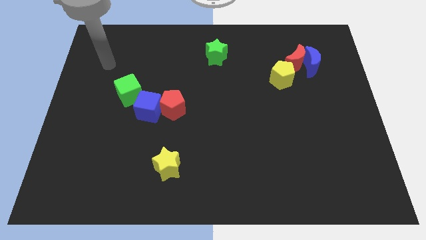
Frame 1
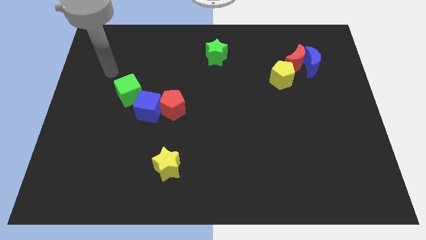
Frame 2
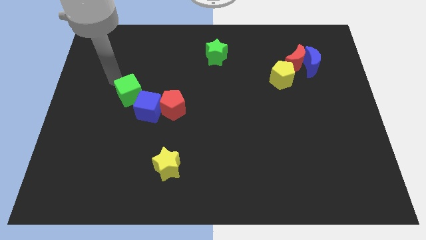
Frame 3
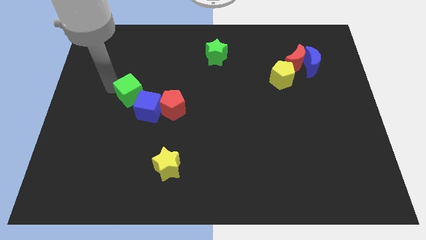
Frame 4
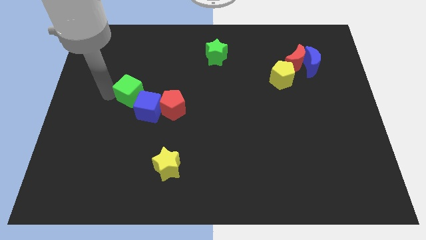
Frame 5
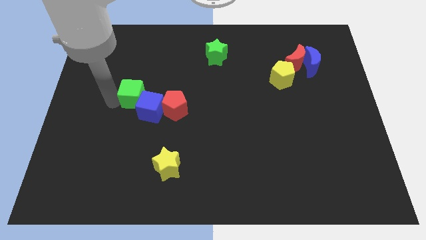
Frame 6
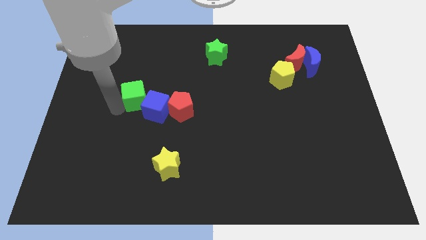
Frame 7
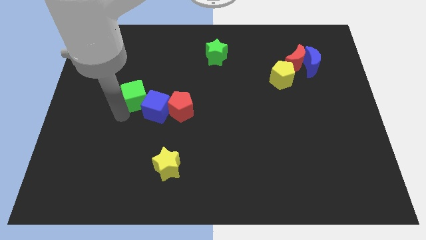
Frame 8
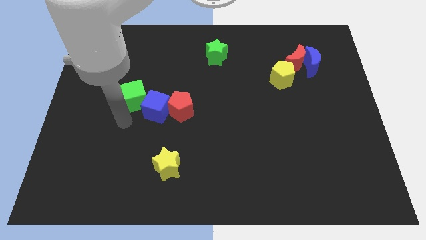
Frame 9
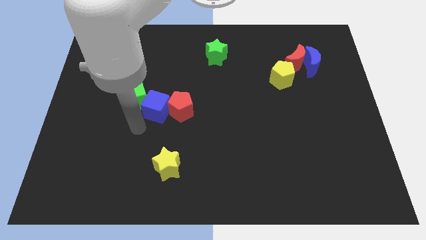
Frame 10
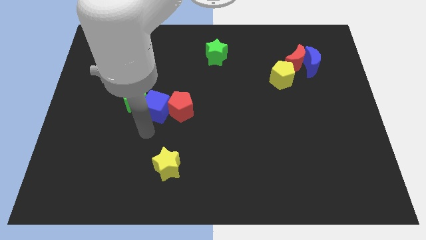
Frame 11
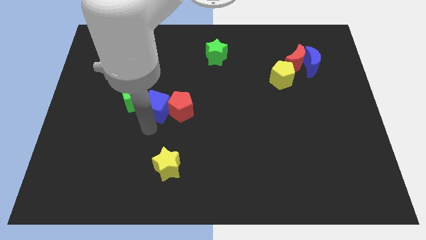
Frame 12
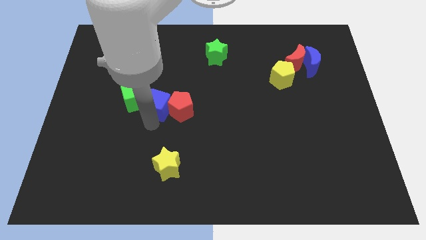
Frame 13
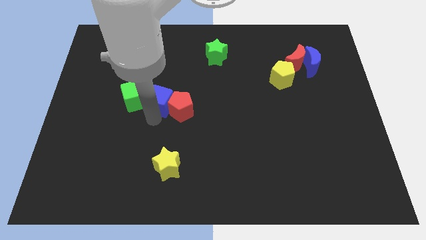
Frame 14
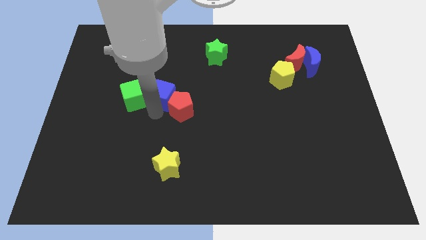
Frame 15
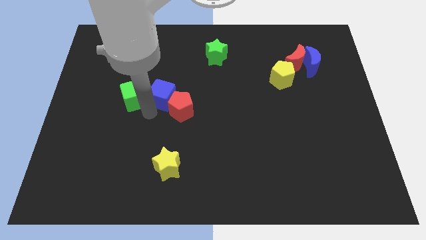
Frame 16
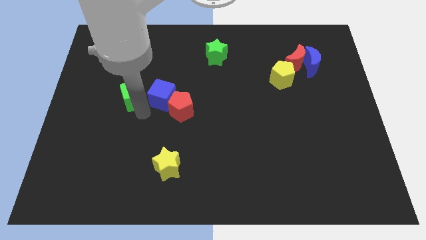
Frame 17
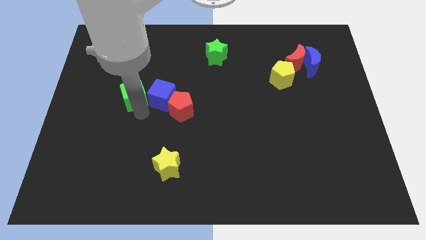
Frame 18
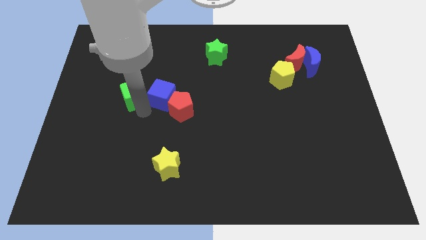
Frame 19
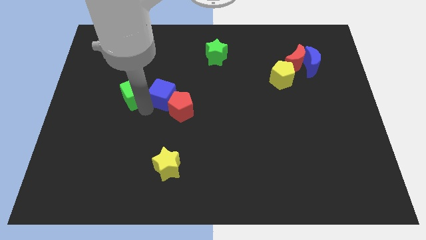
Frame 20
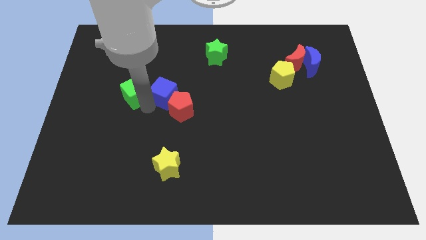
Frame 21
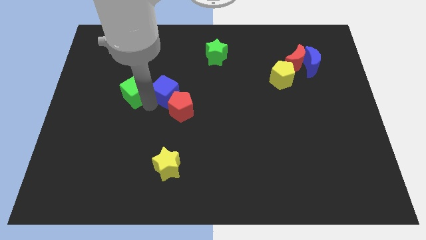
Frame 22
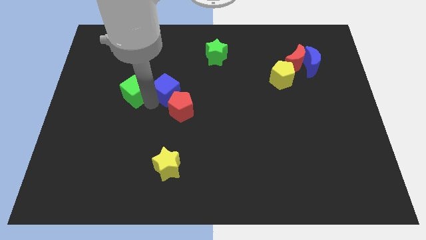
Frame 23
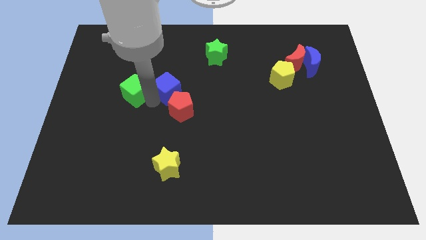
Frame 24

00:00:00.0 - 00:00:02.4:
push the blue cube diagonally upwards and to the right a little

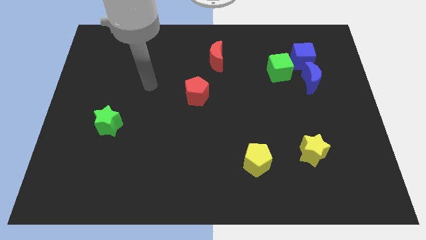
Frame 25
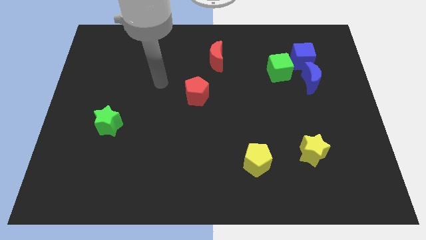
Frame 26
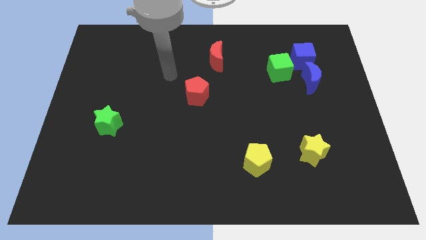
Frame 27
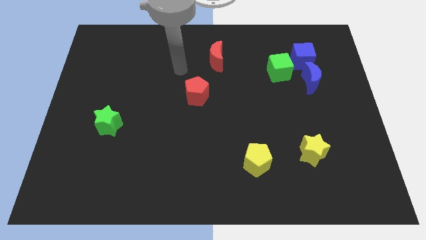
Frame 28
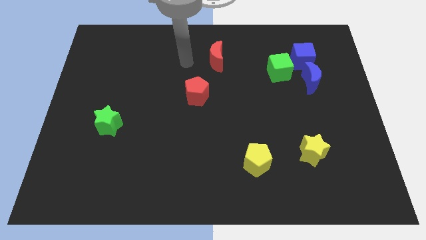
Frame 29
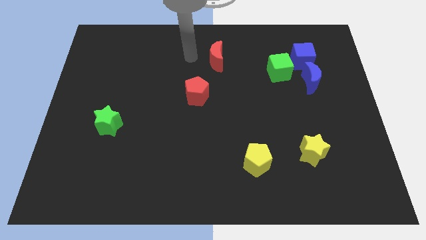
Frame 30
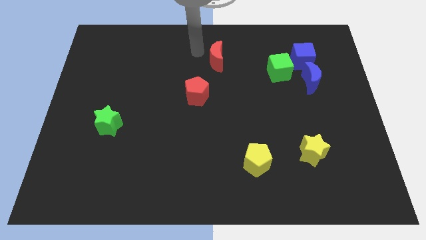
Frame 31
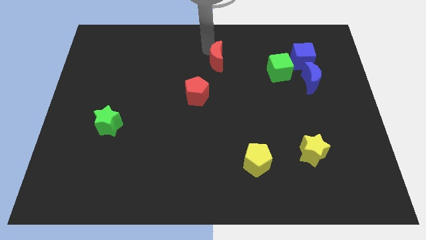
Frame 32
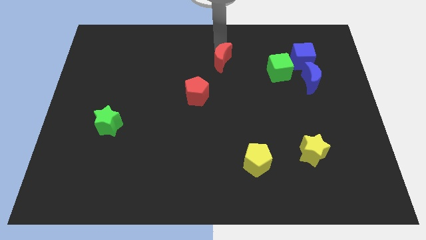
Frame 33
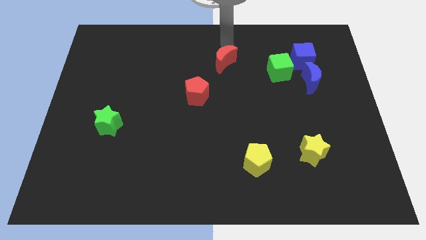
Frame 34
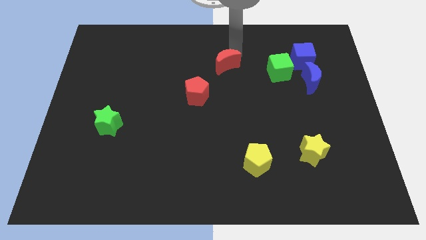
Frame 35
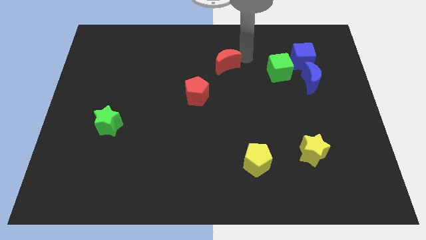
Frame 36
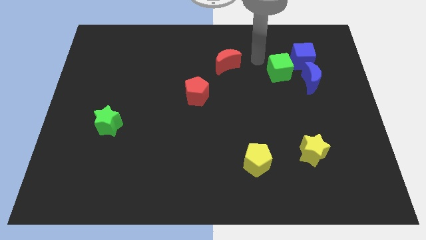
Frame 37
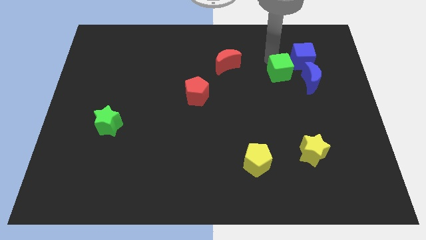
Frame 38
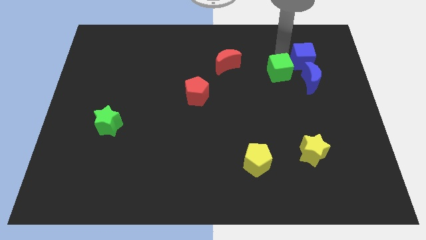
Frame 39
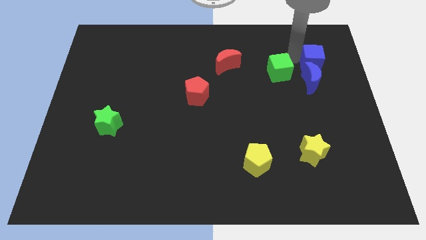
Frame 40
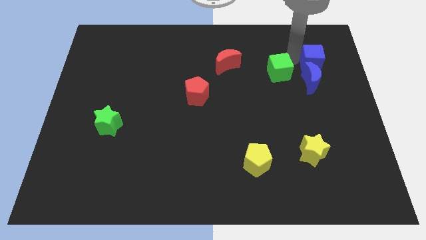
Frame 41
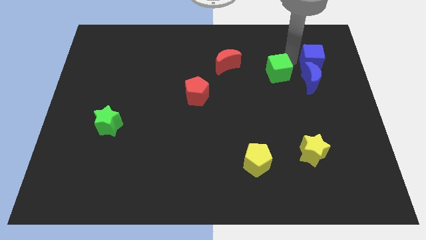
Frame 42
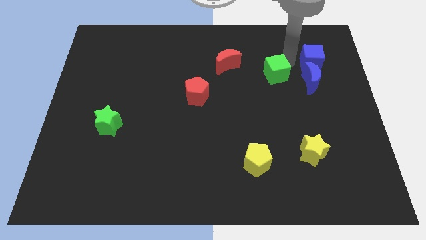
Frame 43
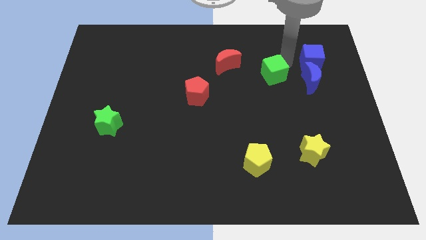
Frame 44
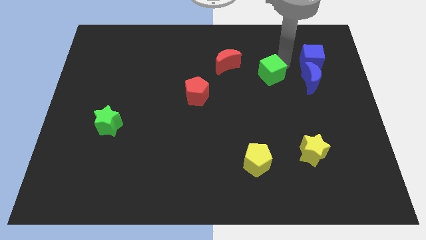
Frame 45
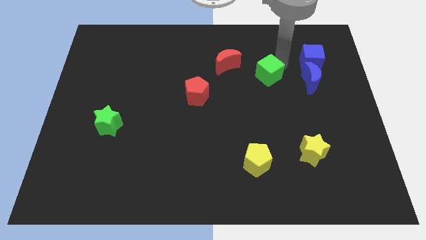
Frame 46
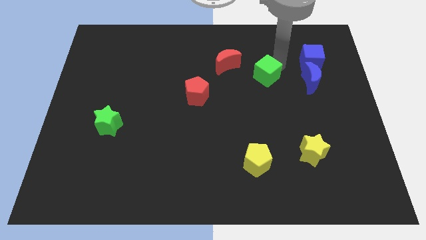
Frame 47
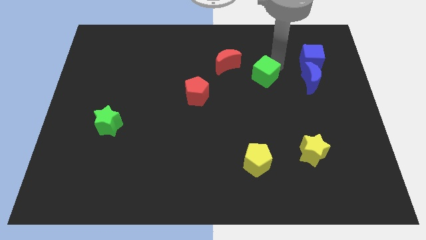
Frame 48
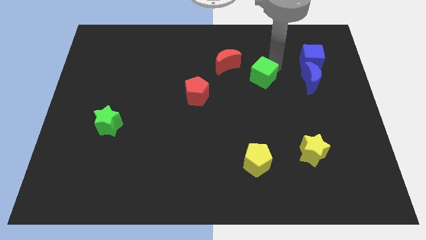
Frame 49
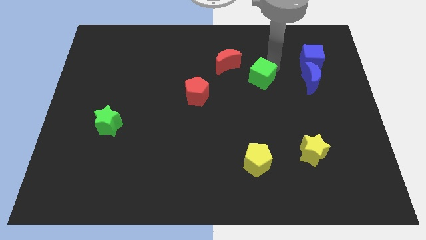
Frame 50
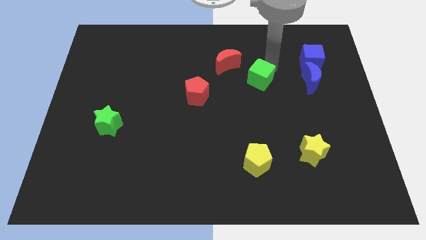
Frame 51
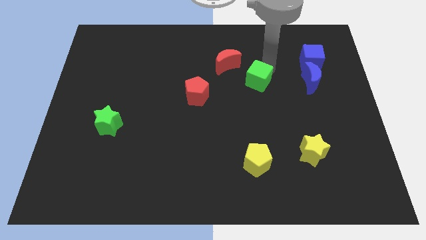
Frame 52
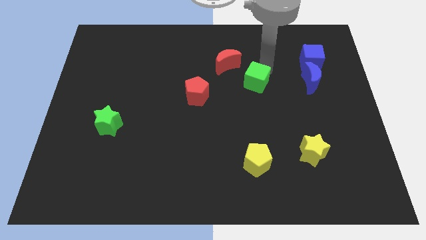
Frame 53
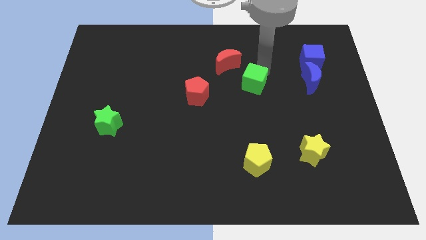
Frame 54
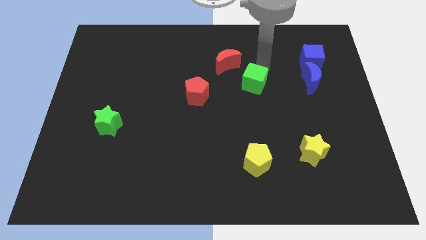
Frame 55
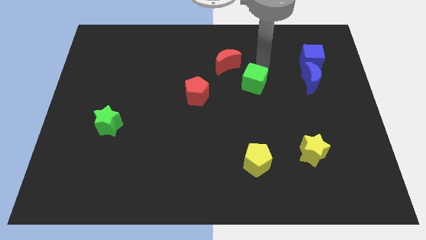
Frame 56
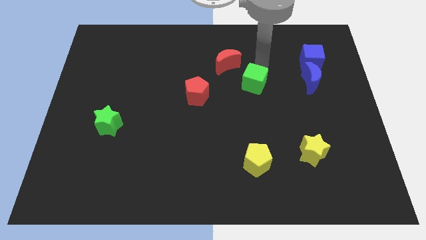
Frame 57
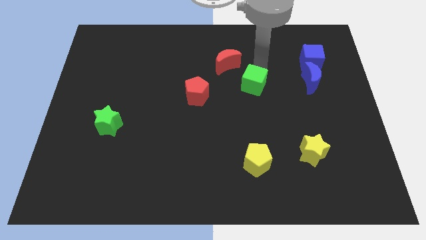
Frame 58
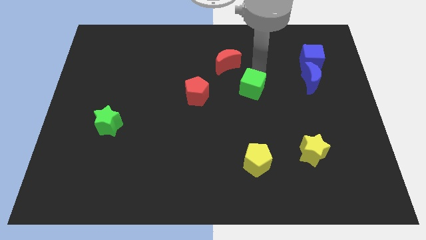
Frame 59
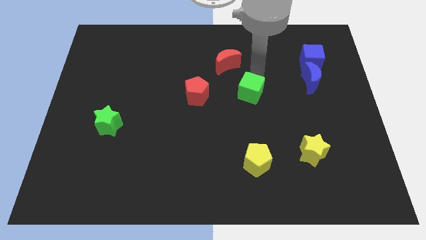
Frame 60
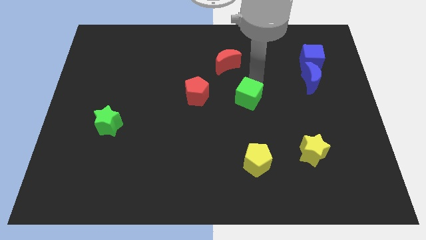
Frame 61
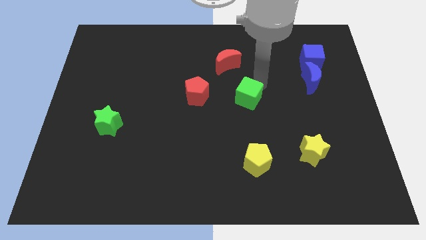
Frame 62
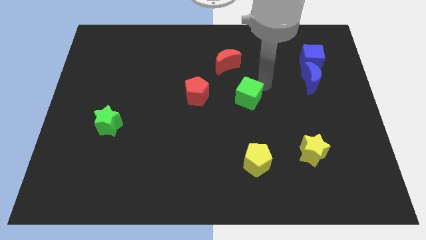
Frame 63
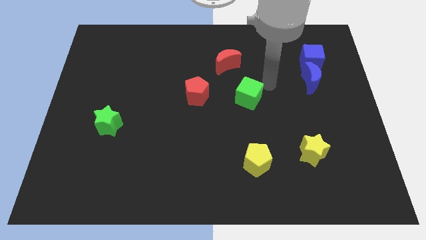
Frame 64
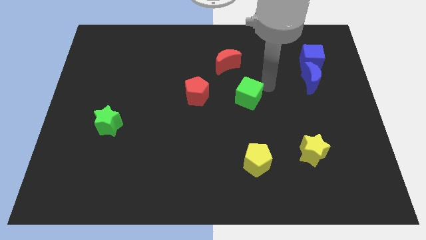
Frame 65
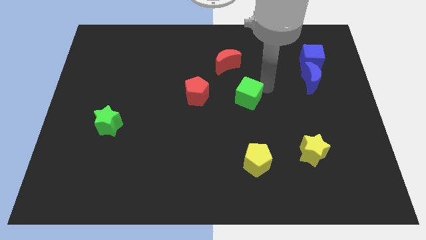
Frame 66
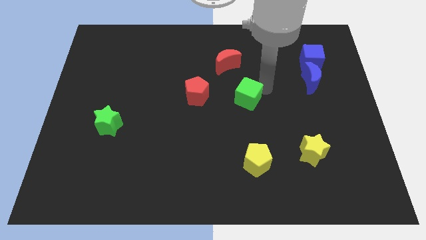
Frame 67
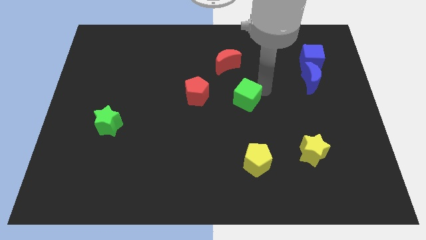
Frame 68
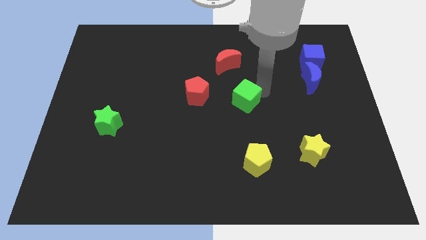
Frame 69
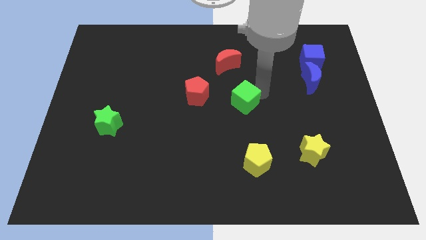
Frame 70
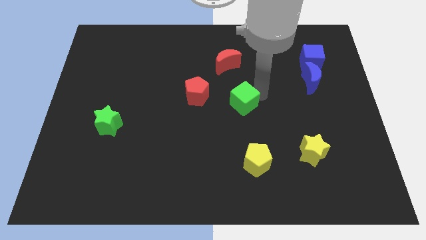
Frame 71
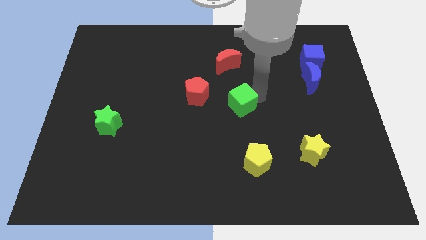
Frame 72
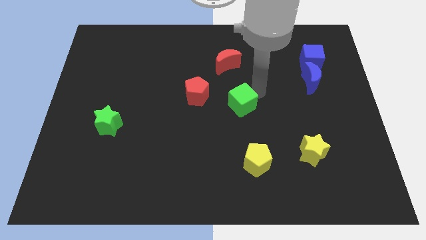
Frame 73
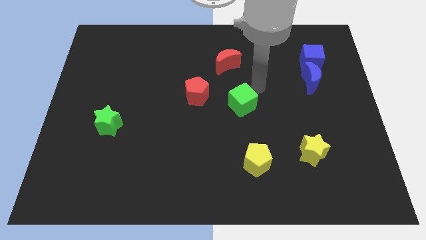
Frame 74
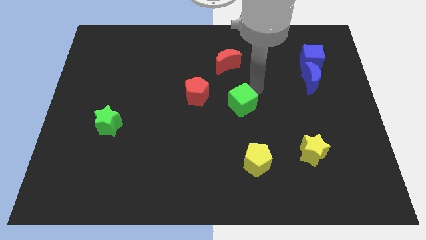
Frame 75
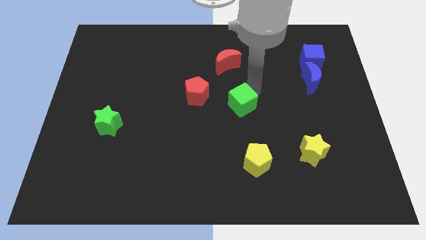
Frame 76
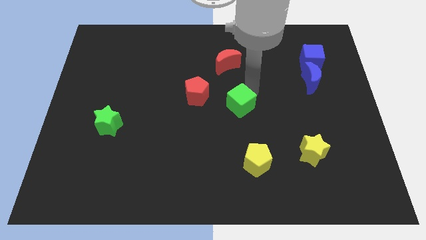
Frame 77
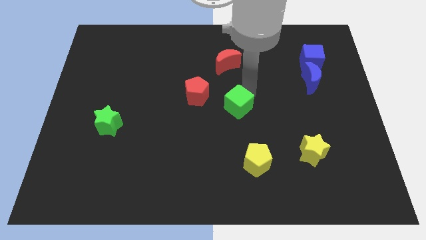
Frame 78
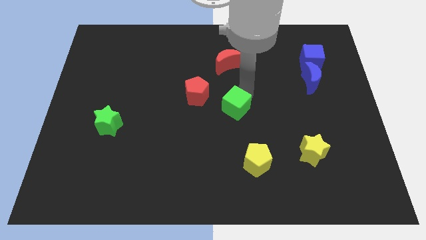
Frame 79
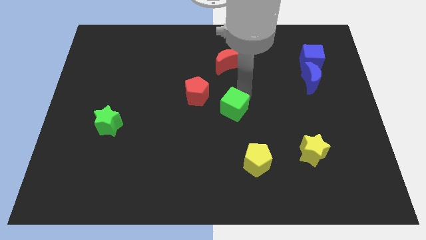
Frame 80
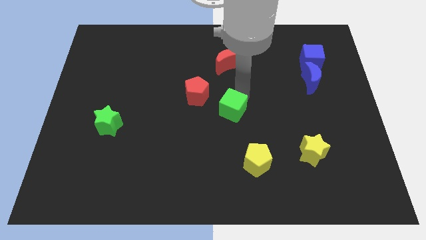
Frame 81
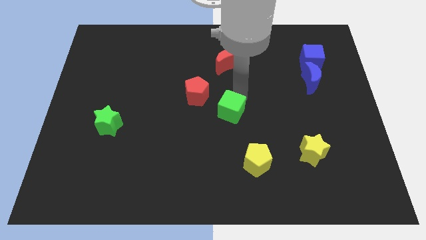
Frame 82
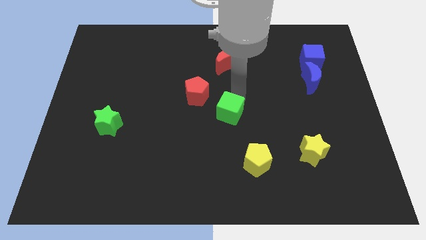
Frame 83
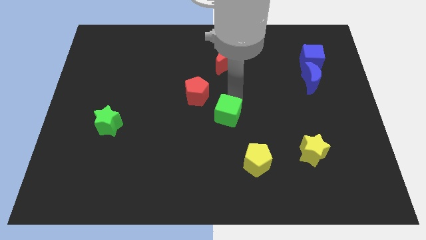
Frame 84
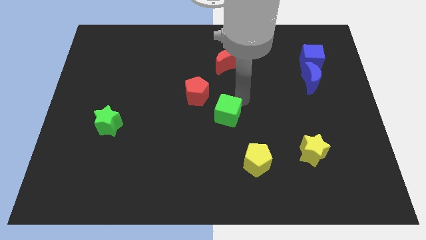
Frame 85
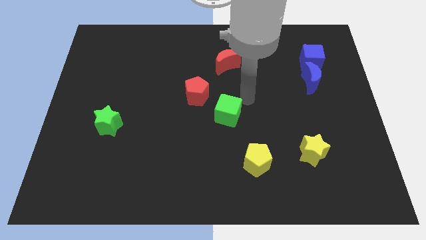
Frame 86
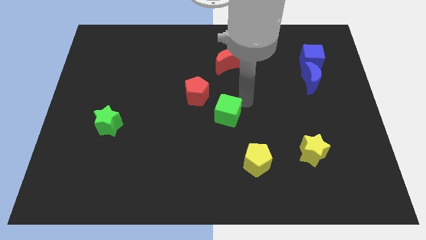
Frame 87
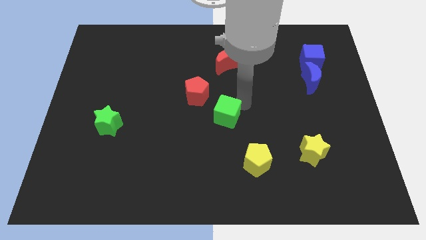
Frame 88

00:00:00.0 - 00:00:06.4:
move the green cube downwards and then left
